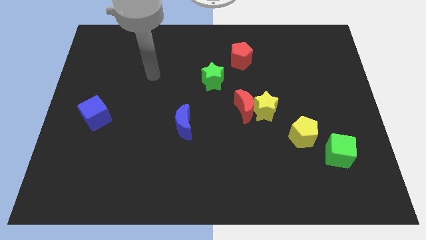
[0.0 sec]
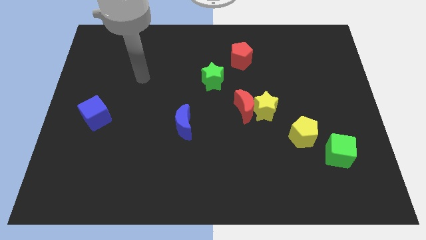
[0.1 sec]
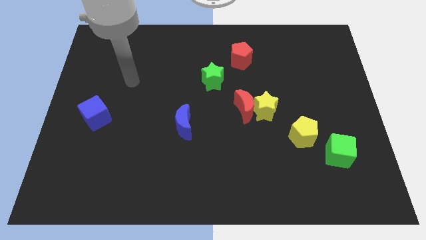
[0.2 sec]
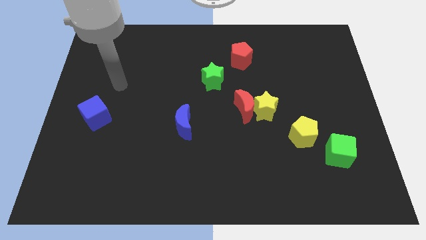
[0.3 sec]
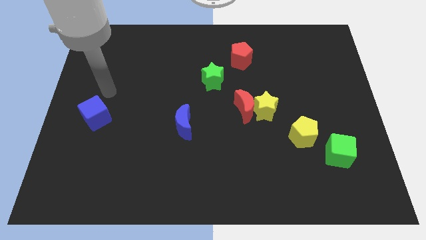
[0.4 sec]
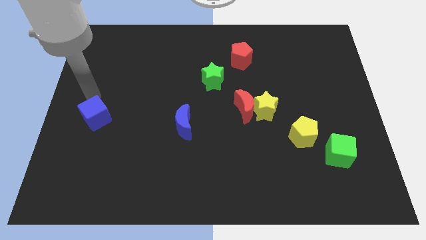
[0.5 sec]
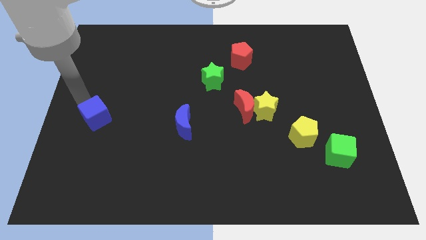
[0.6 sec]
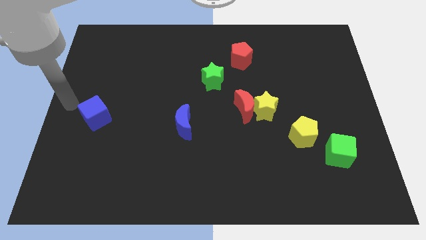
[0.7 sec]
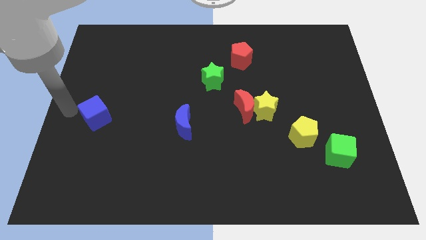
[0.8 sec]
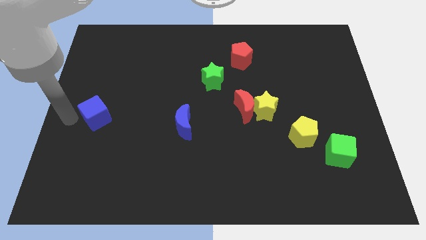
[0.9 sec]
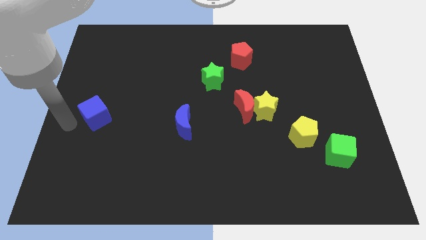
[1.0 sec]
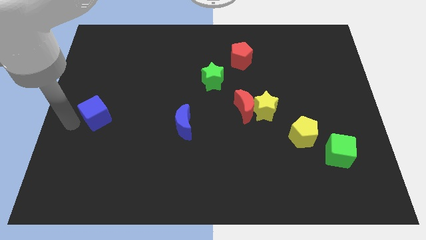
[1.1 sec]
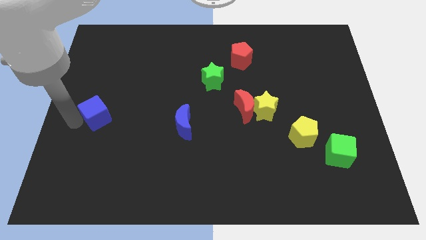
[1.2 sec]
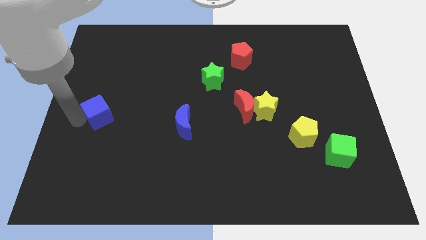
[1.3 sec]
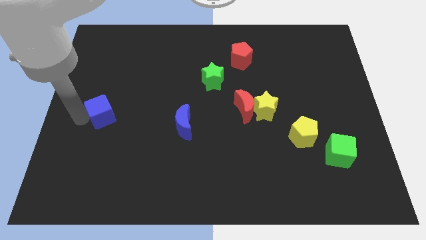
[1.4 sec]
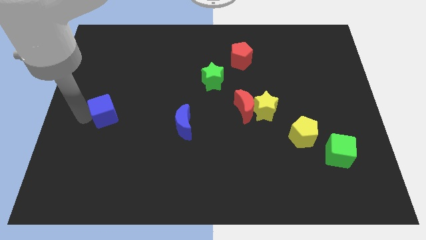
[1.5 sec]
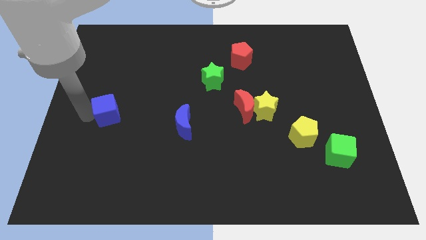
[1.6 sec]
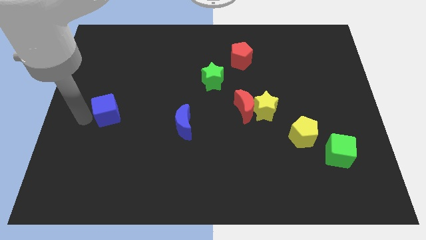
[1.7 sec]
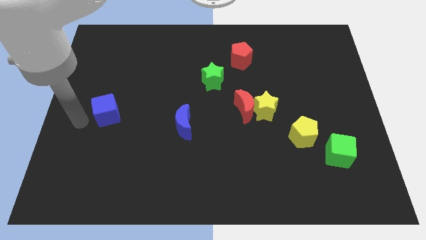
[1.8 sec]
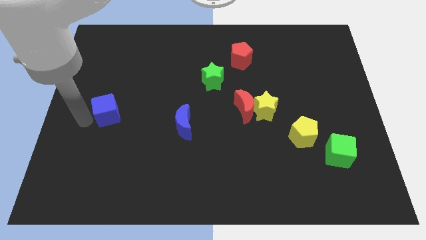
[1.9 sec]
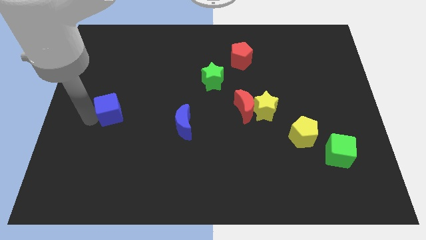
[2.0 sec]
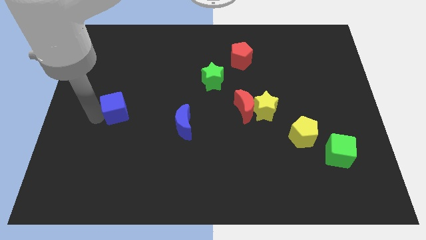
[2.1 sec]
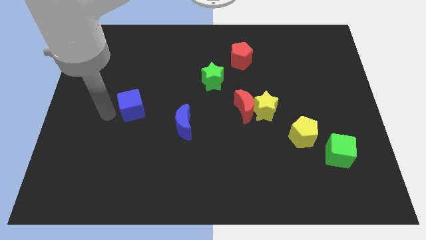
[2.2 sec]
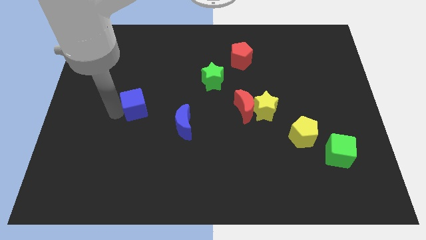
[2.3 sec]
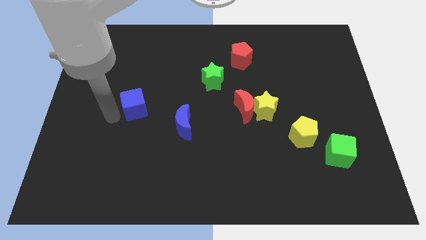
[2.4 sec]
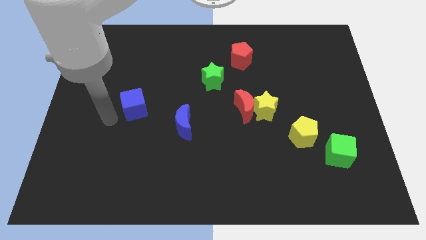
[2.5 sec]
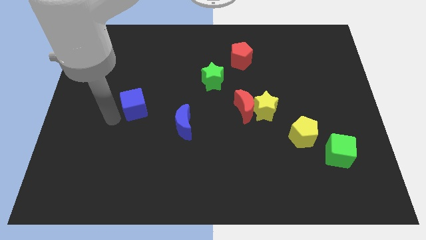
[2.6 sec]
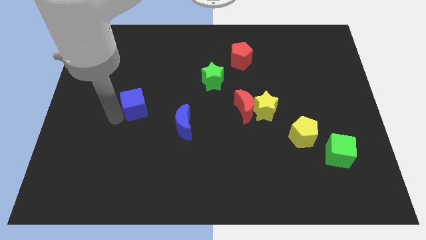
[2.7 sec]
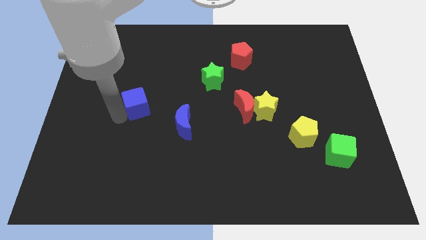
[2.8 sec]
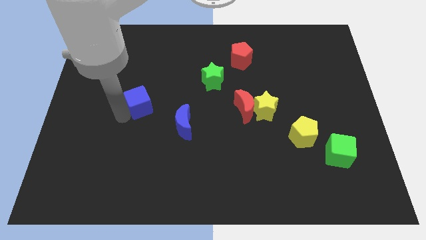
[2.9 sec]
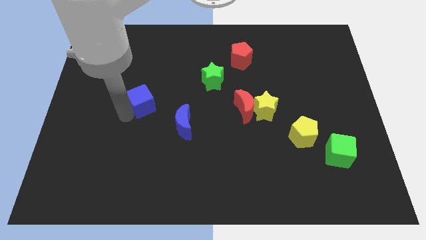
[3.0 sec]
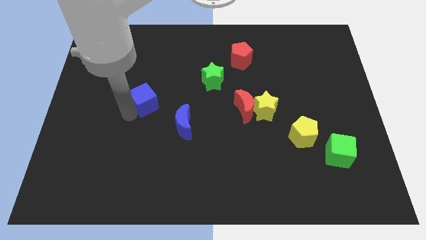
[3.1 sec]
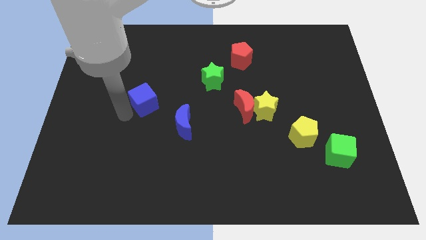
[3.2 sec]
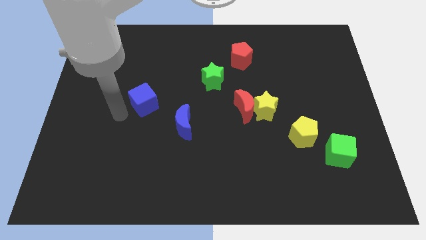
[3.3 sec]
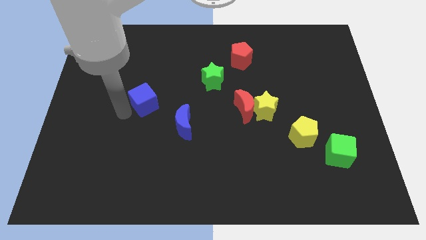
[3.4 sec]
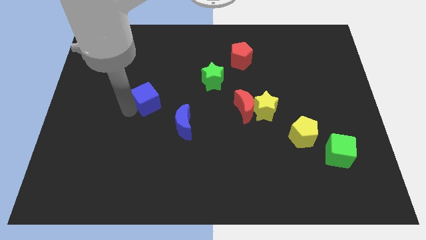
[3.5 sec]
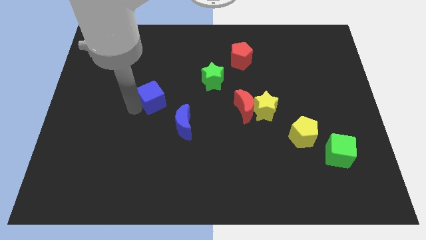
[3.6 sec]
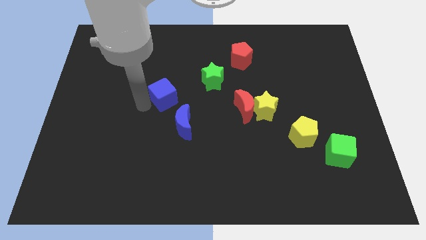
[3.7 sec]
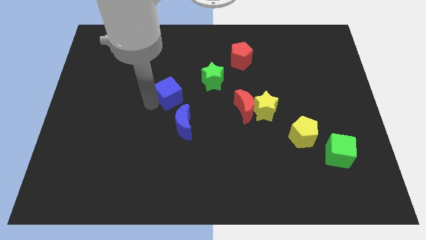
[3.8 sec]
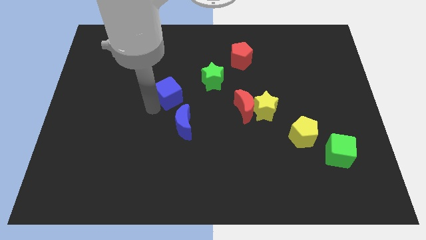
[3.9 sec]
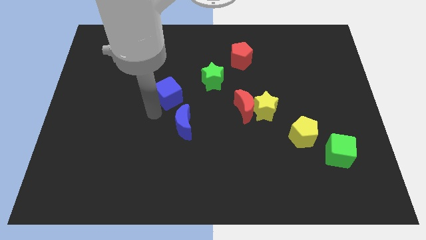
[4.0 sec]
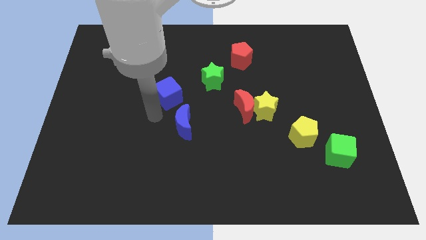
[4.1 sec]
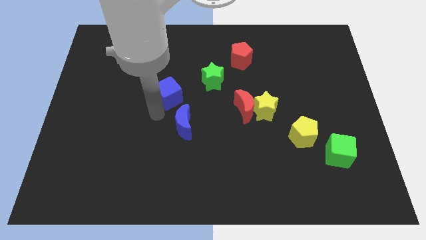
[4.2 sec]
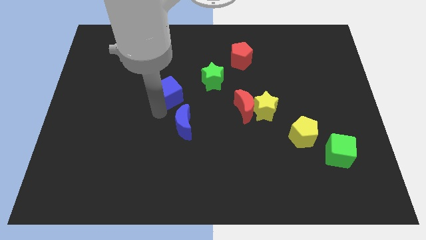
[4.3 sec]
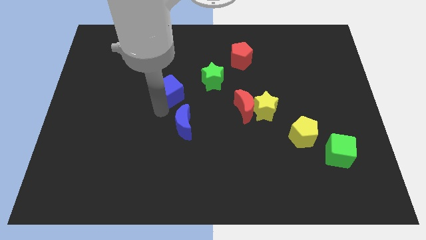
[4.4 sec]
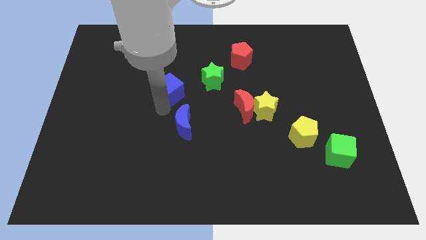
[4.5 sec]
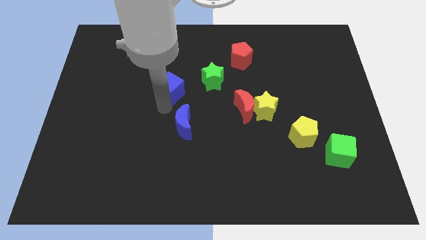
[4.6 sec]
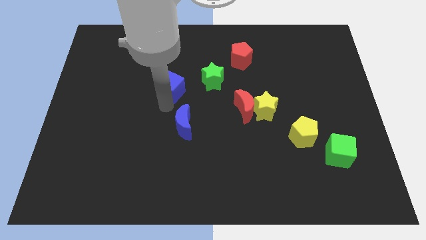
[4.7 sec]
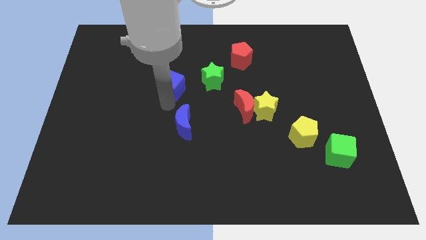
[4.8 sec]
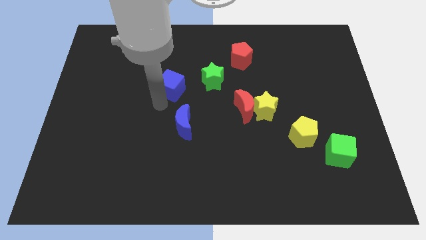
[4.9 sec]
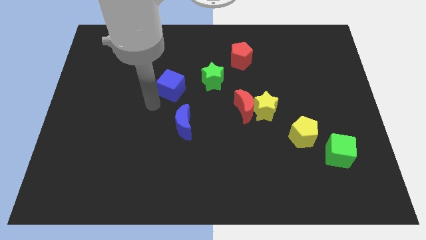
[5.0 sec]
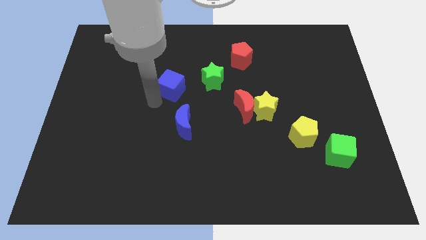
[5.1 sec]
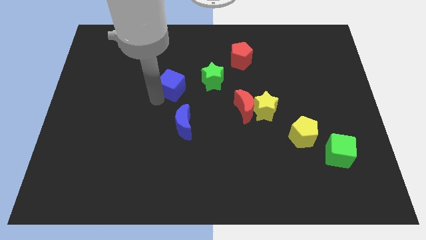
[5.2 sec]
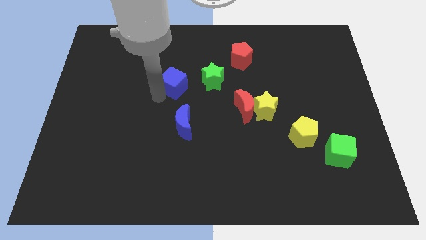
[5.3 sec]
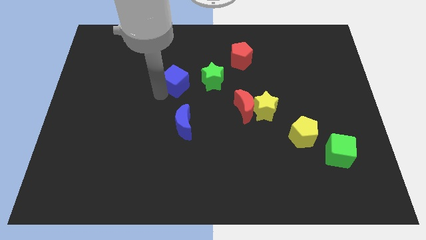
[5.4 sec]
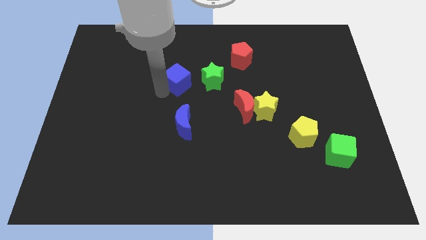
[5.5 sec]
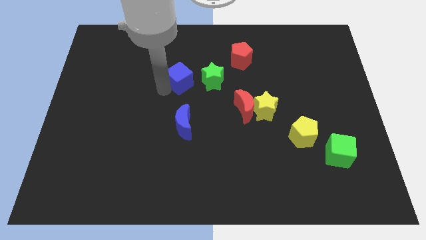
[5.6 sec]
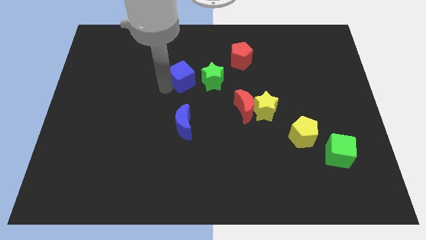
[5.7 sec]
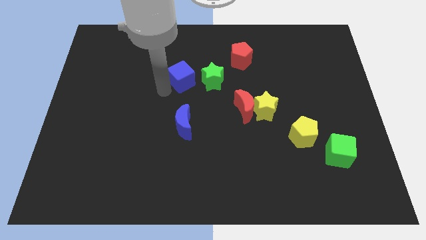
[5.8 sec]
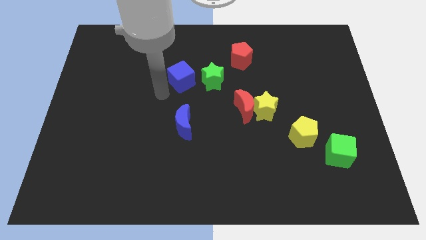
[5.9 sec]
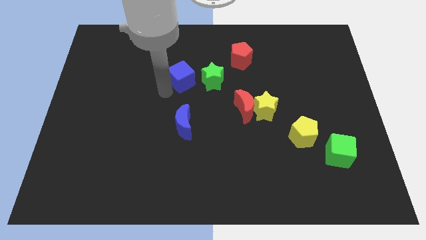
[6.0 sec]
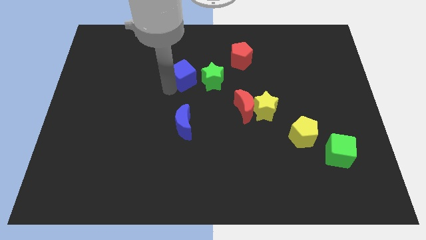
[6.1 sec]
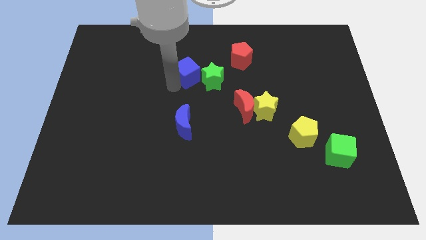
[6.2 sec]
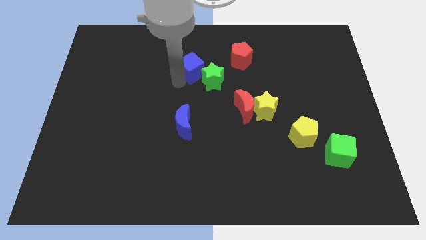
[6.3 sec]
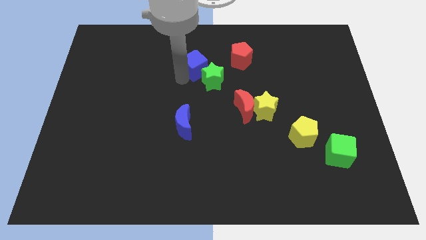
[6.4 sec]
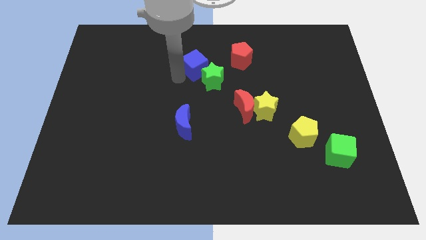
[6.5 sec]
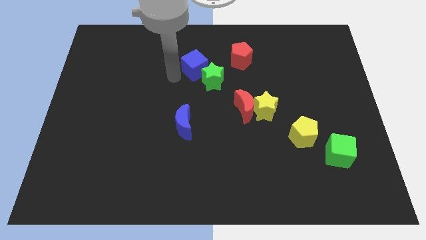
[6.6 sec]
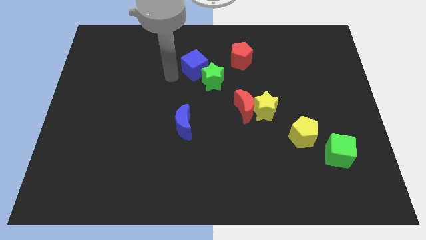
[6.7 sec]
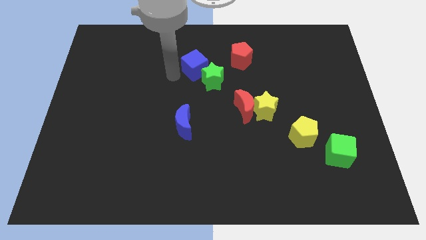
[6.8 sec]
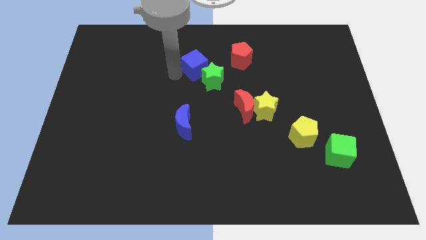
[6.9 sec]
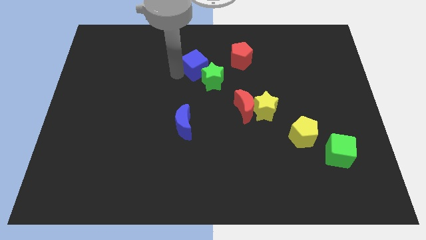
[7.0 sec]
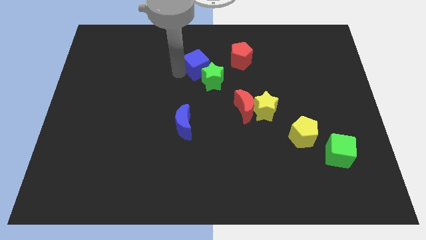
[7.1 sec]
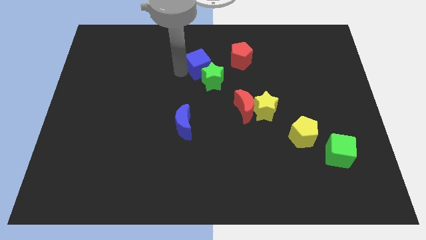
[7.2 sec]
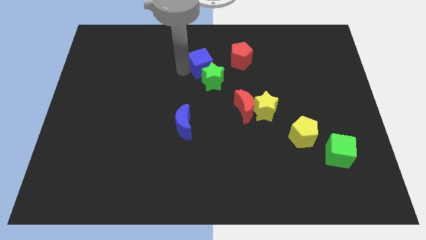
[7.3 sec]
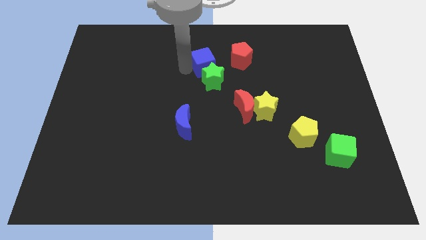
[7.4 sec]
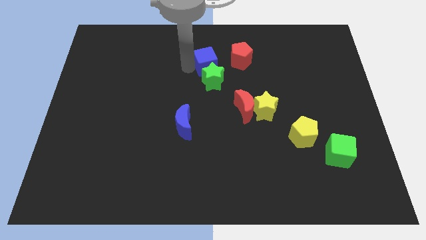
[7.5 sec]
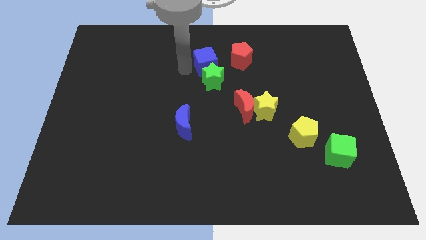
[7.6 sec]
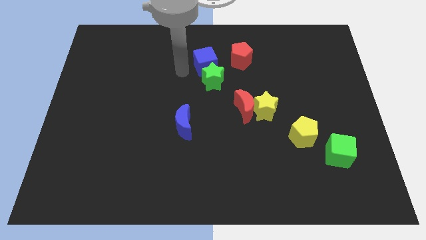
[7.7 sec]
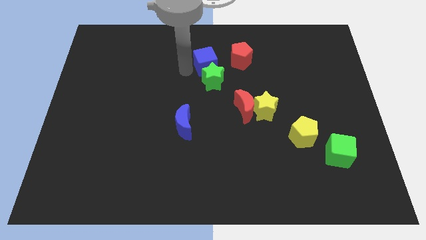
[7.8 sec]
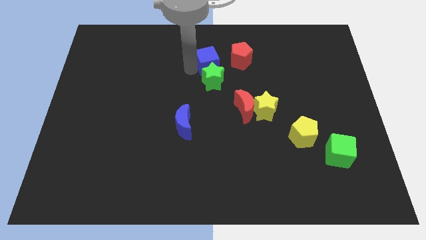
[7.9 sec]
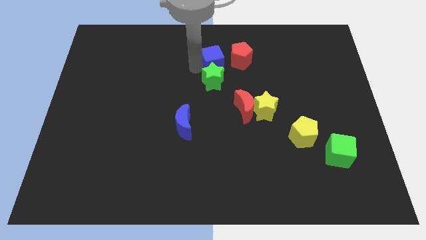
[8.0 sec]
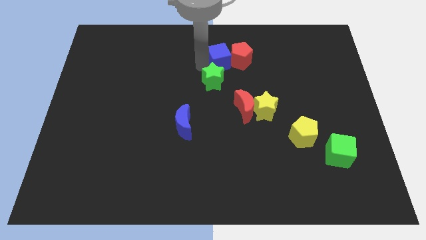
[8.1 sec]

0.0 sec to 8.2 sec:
slide the blue cube next to the red pentagon
